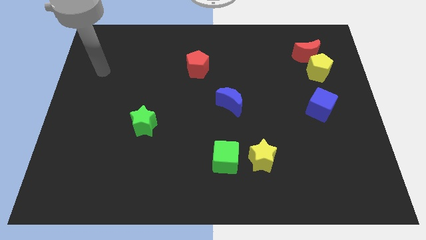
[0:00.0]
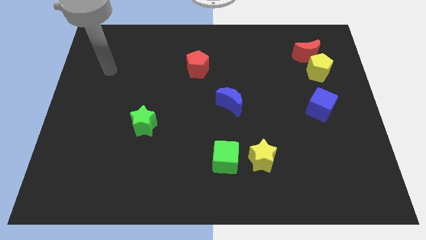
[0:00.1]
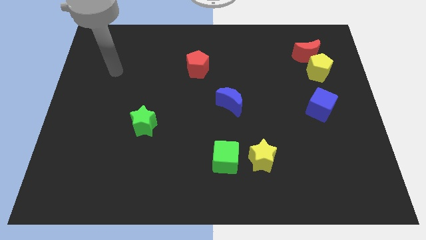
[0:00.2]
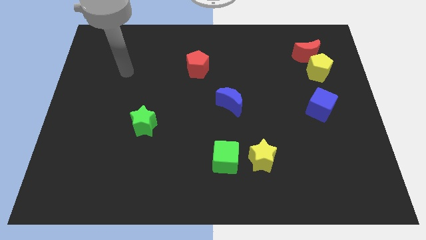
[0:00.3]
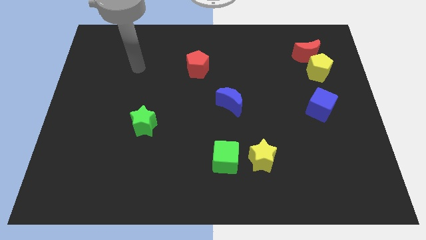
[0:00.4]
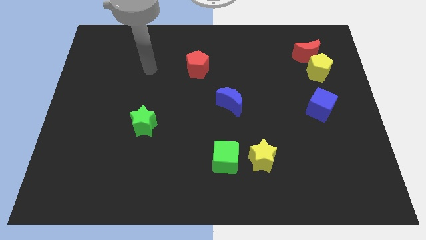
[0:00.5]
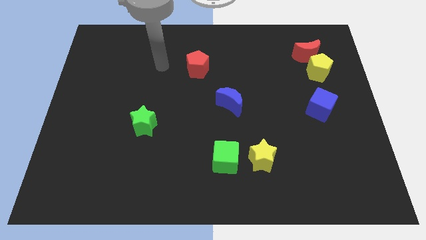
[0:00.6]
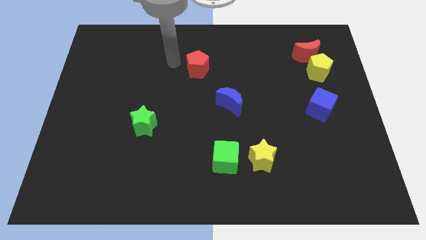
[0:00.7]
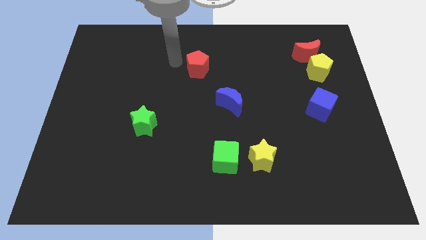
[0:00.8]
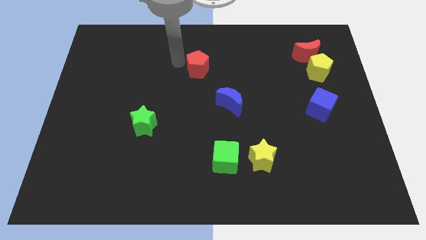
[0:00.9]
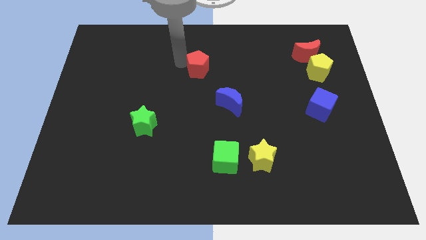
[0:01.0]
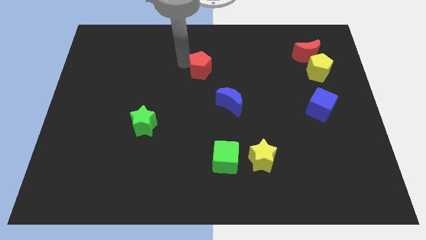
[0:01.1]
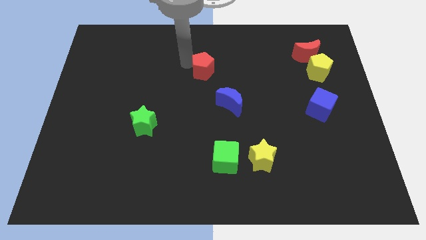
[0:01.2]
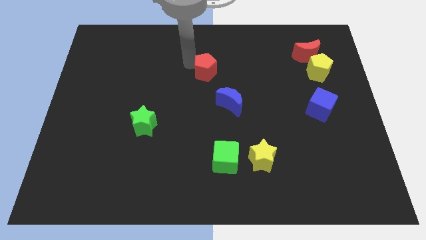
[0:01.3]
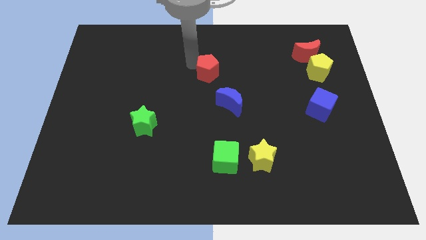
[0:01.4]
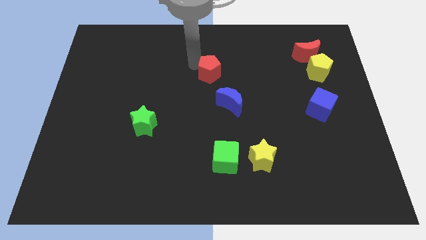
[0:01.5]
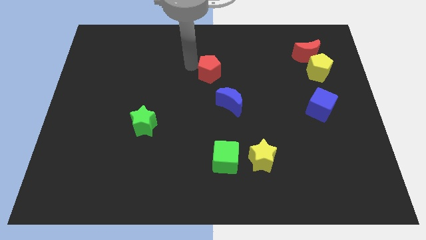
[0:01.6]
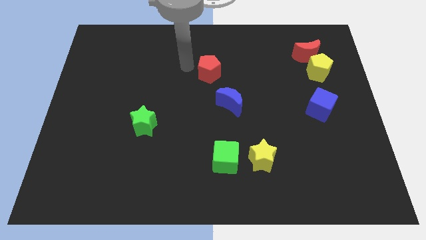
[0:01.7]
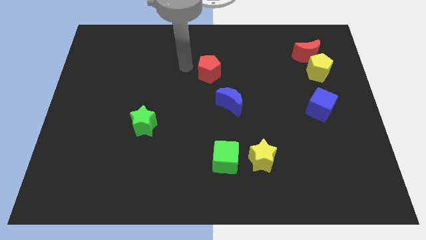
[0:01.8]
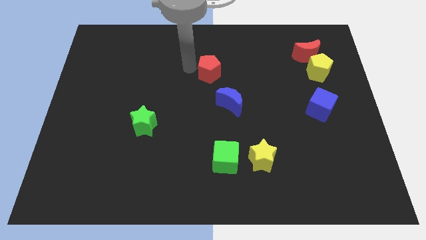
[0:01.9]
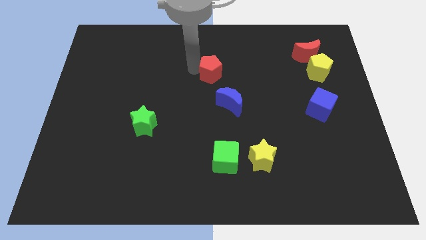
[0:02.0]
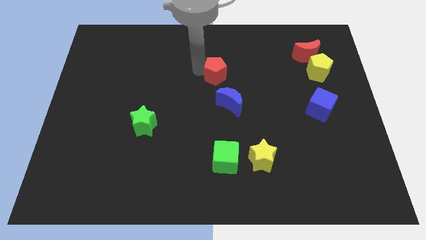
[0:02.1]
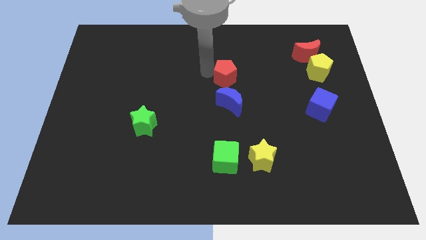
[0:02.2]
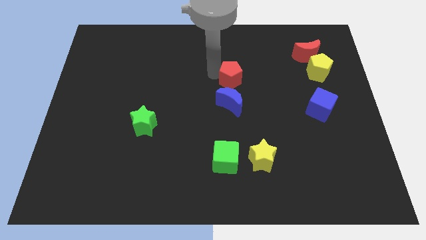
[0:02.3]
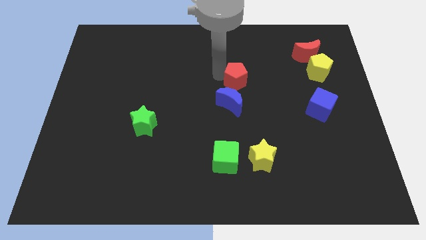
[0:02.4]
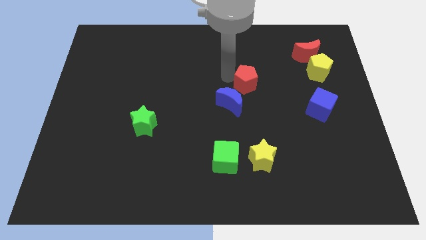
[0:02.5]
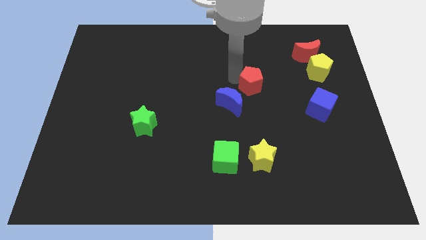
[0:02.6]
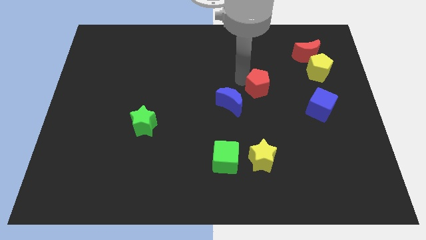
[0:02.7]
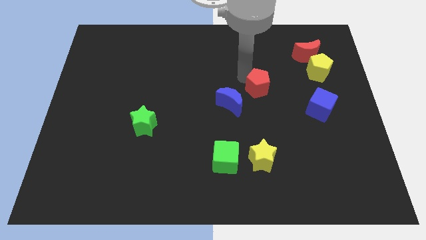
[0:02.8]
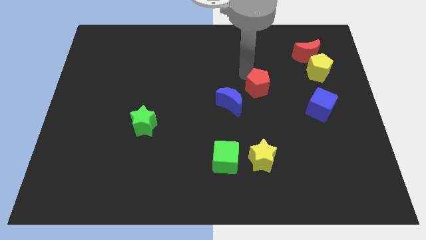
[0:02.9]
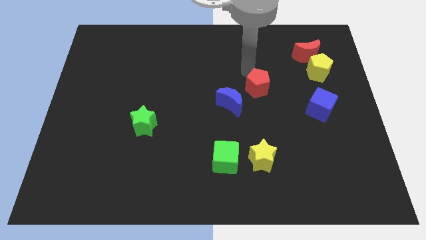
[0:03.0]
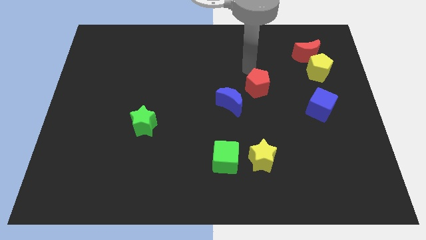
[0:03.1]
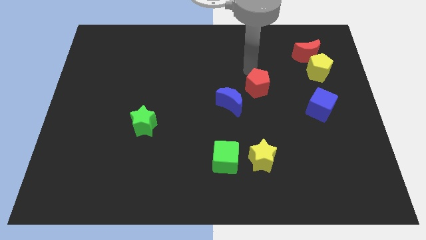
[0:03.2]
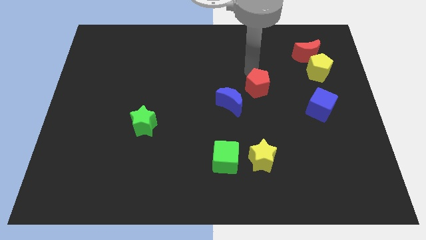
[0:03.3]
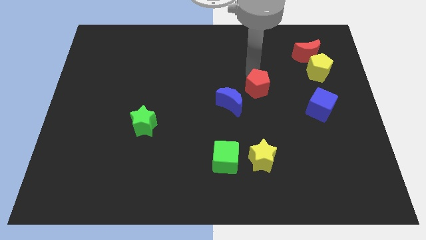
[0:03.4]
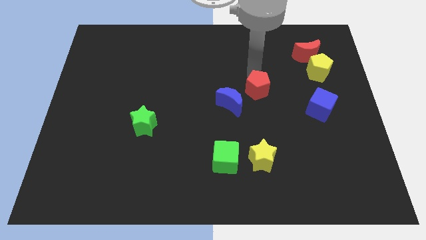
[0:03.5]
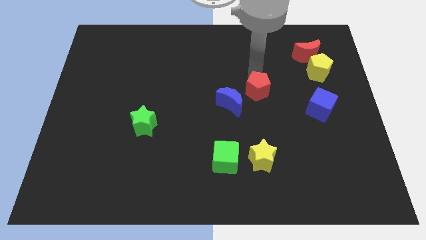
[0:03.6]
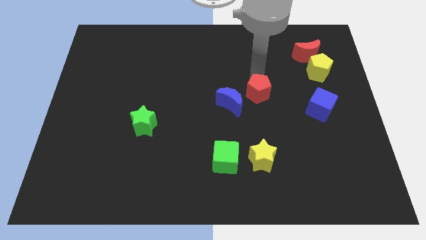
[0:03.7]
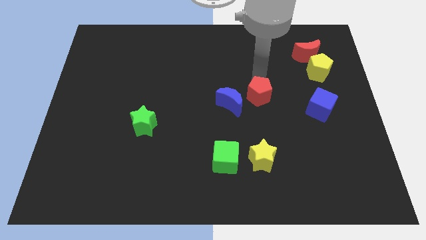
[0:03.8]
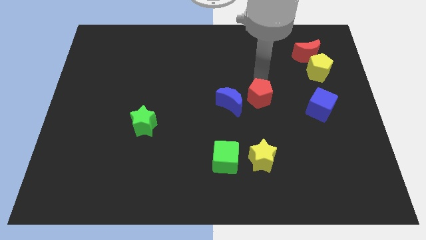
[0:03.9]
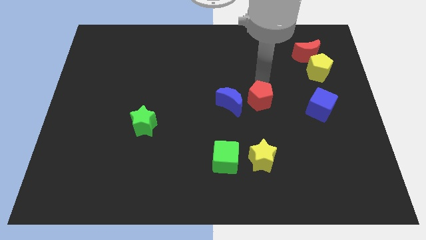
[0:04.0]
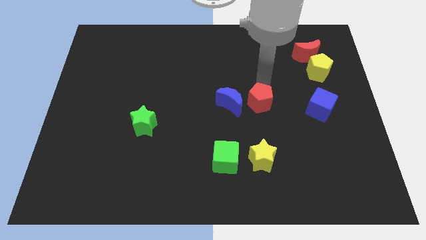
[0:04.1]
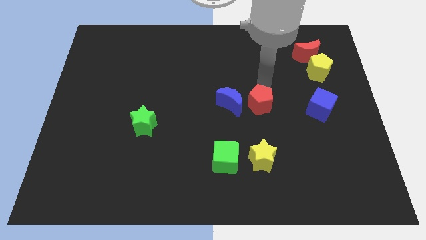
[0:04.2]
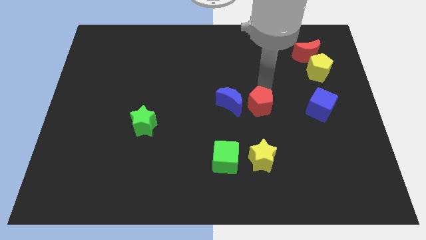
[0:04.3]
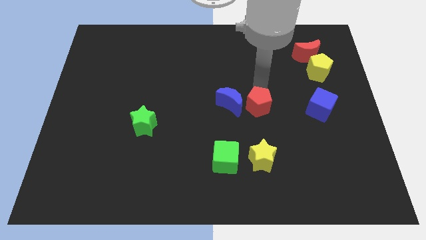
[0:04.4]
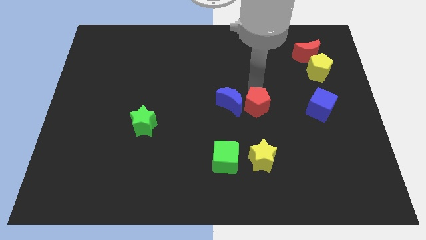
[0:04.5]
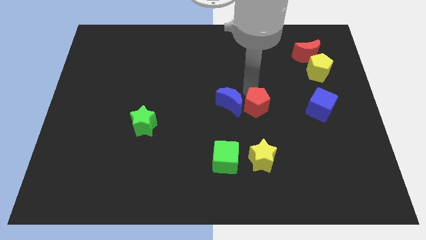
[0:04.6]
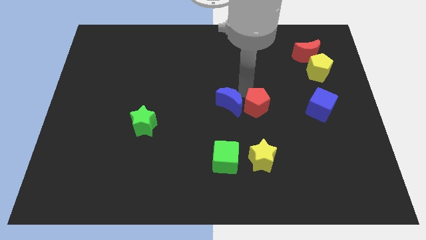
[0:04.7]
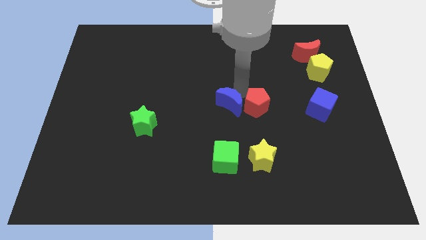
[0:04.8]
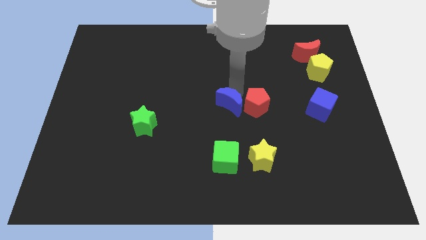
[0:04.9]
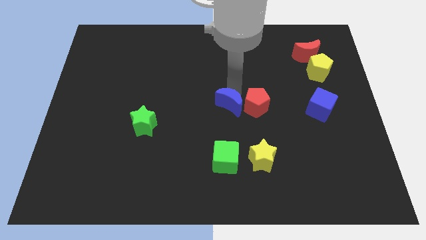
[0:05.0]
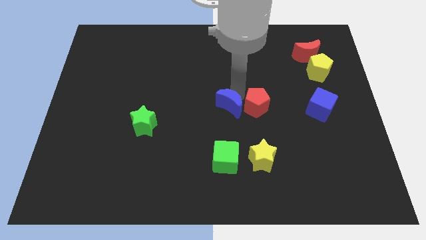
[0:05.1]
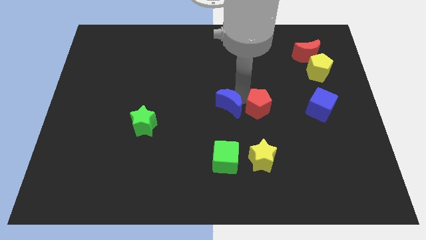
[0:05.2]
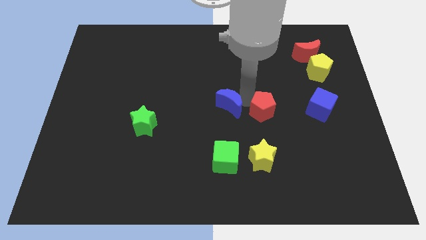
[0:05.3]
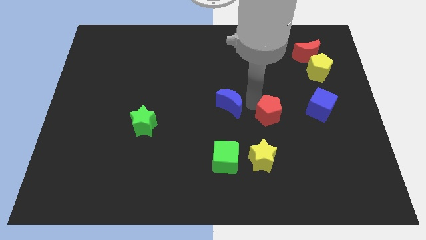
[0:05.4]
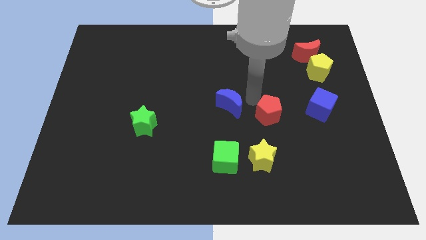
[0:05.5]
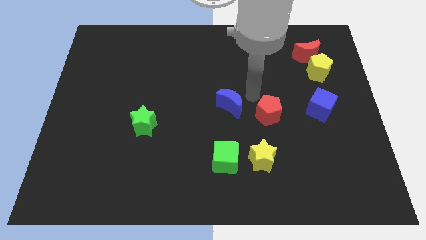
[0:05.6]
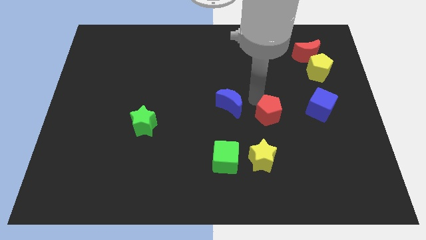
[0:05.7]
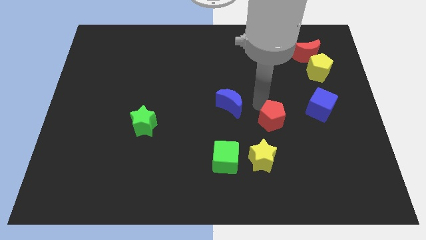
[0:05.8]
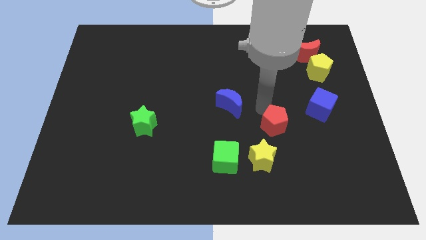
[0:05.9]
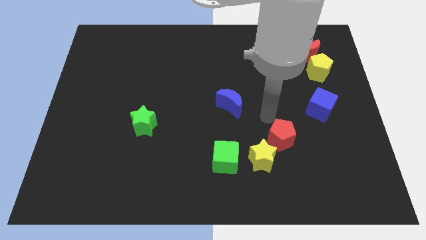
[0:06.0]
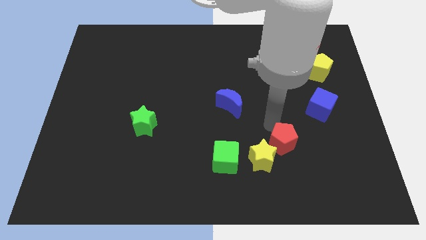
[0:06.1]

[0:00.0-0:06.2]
slide the red pentagon just right of the yellow star

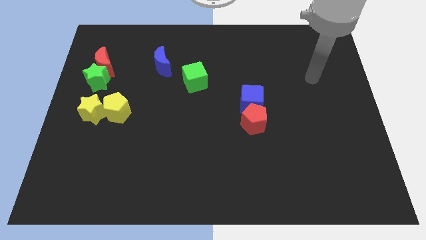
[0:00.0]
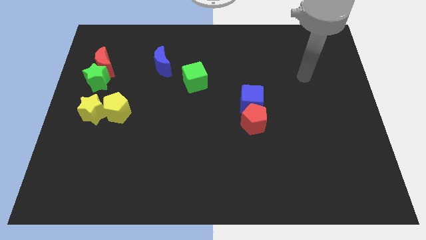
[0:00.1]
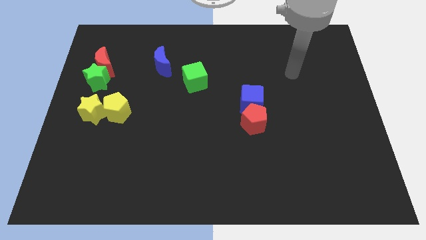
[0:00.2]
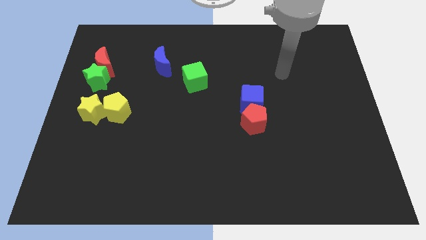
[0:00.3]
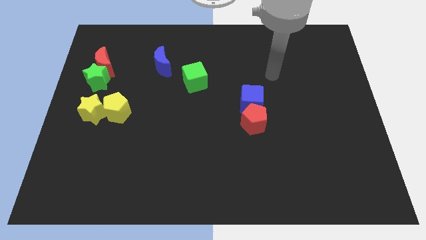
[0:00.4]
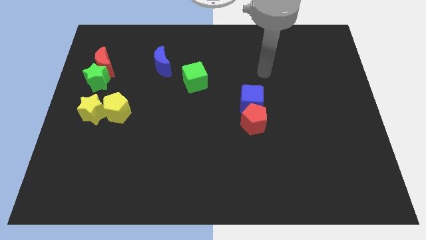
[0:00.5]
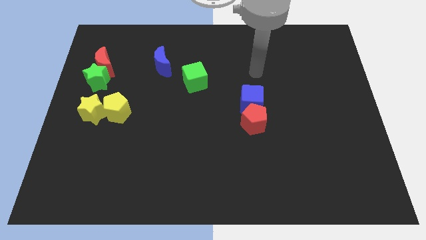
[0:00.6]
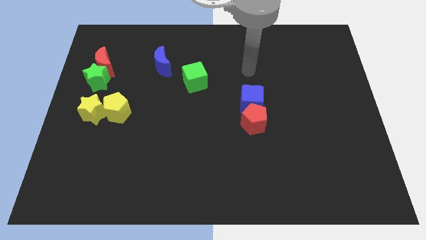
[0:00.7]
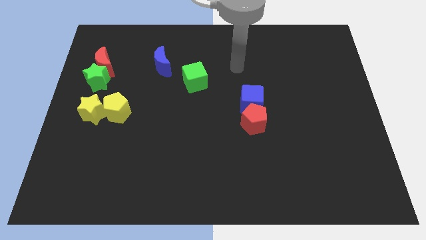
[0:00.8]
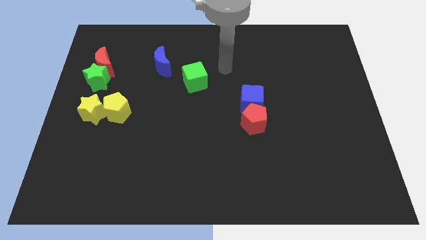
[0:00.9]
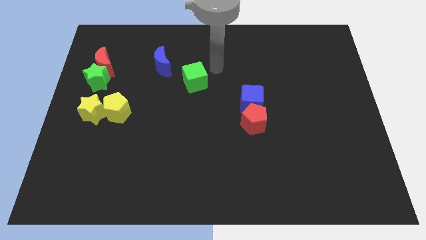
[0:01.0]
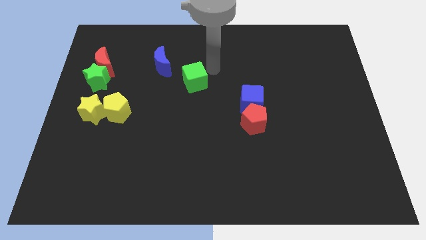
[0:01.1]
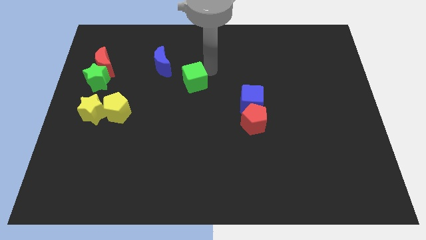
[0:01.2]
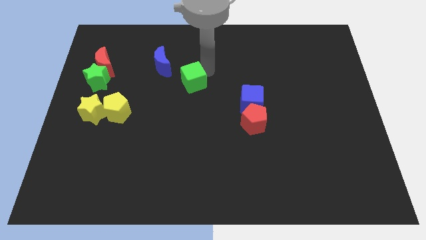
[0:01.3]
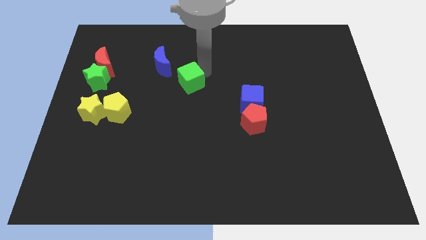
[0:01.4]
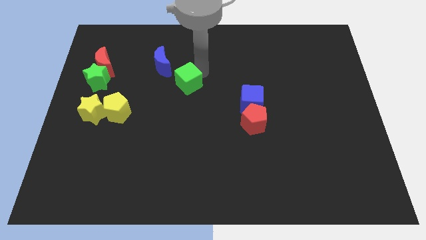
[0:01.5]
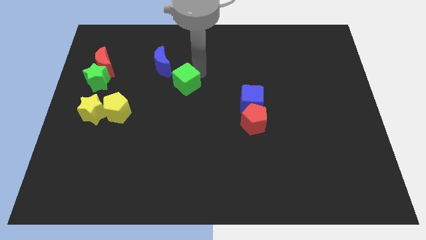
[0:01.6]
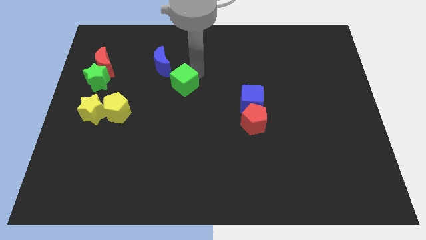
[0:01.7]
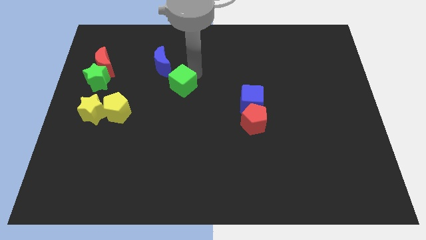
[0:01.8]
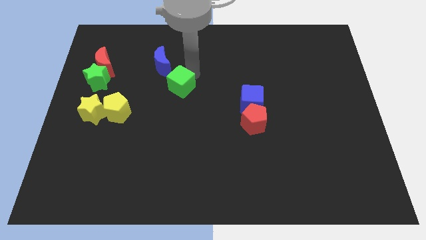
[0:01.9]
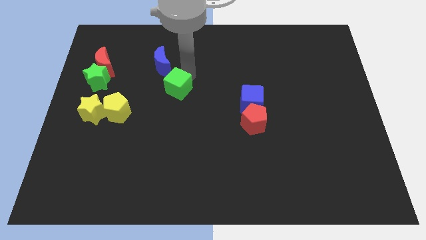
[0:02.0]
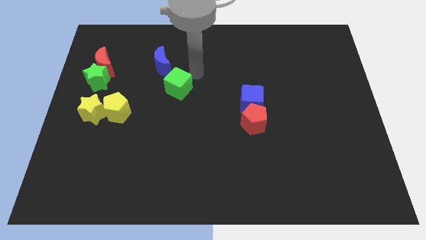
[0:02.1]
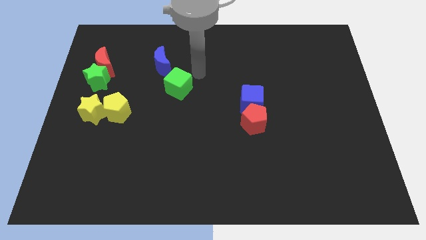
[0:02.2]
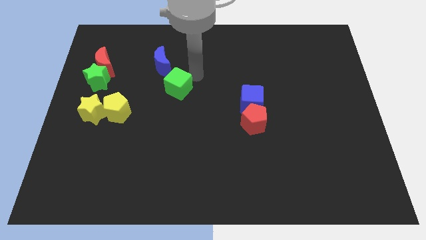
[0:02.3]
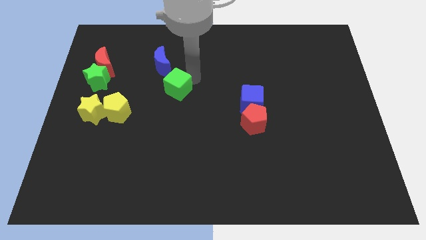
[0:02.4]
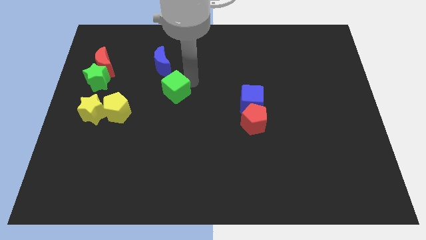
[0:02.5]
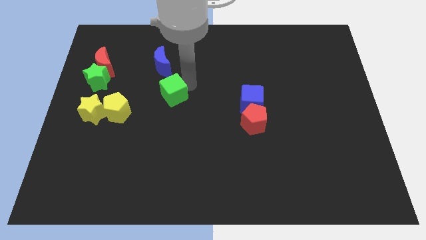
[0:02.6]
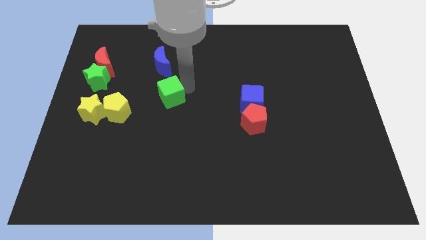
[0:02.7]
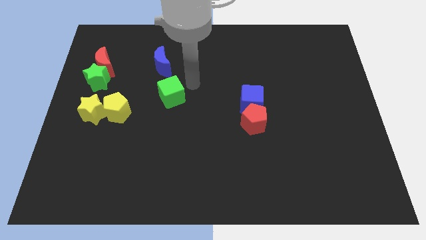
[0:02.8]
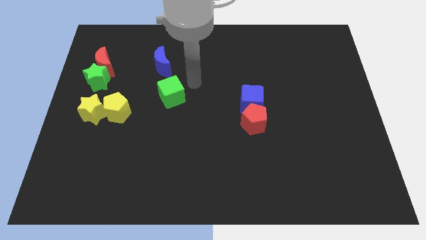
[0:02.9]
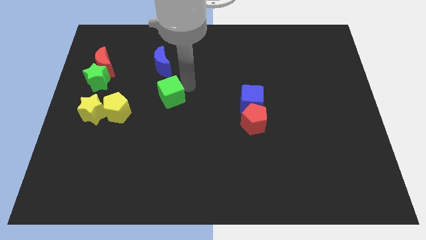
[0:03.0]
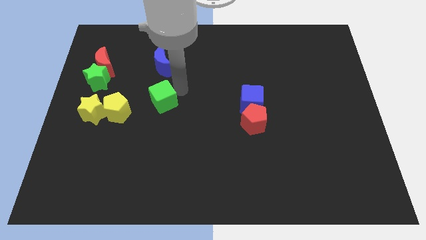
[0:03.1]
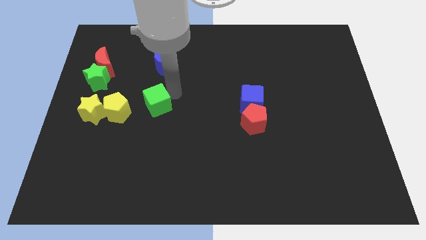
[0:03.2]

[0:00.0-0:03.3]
put the green cube right of the yellow star
